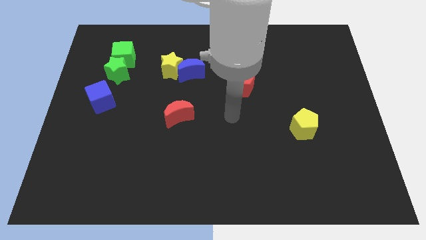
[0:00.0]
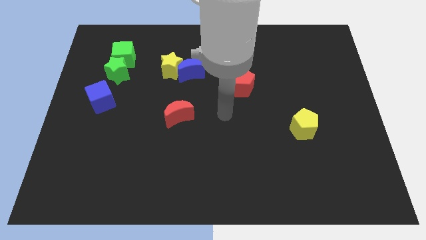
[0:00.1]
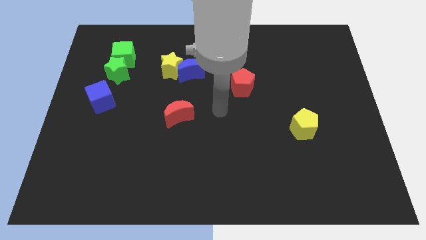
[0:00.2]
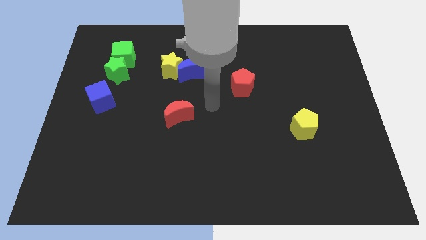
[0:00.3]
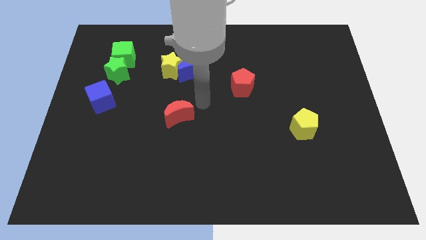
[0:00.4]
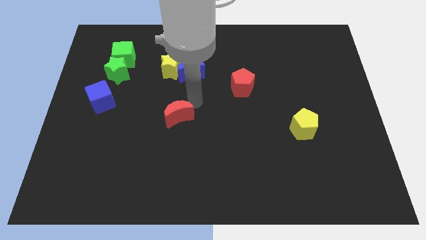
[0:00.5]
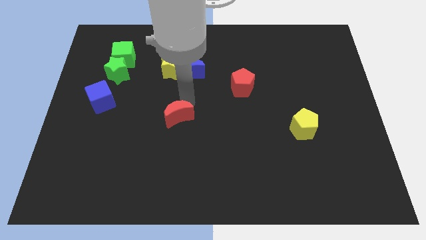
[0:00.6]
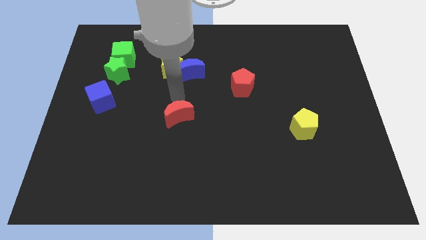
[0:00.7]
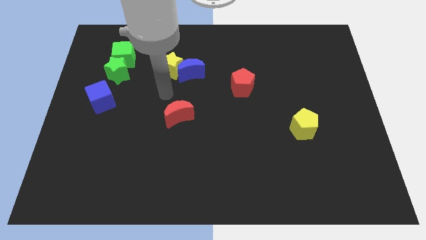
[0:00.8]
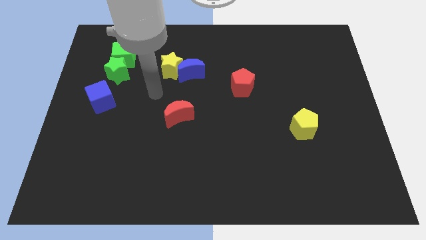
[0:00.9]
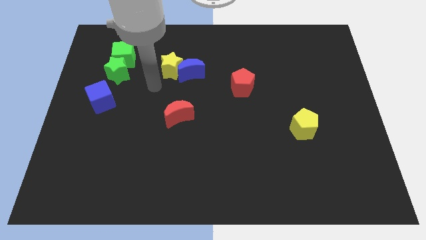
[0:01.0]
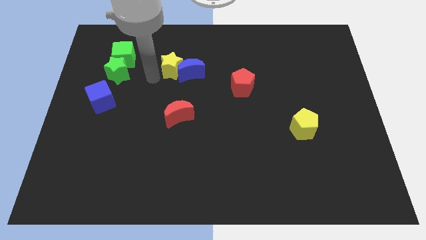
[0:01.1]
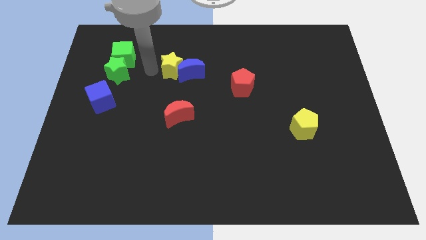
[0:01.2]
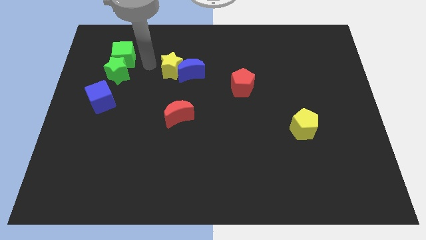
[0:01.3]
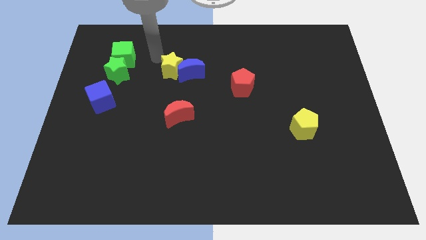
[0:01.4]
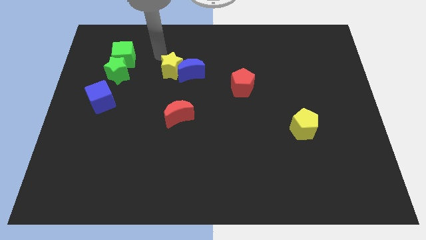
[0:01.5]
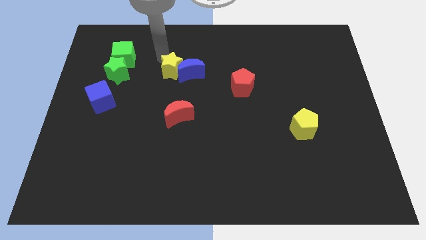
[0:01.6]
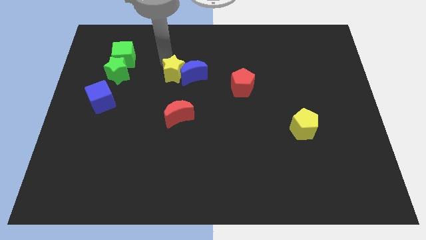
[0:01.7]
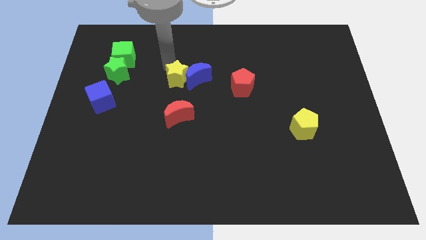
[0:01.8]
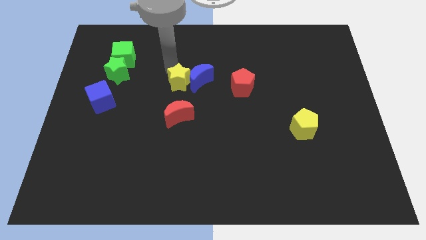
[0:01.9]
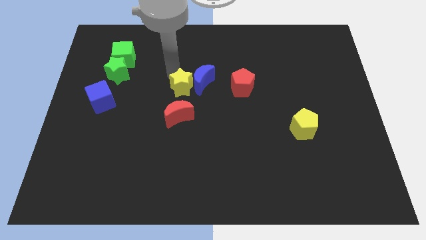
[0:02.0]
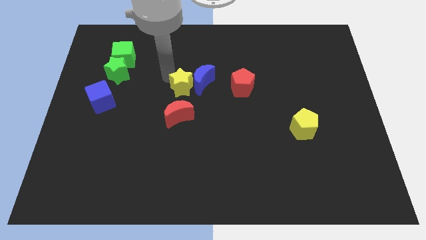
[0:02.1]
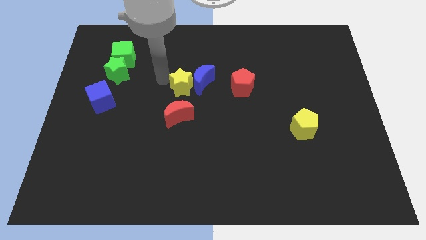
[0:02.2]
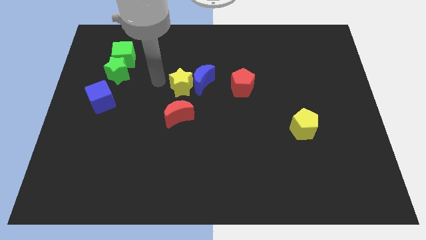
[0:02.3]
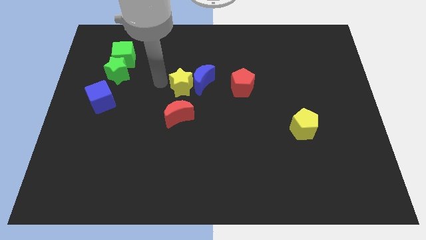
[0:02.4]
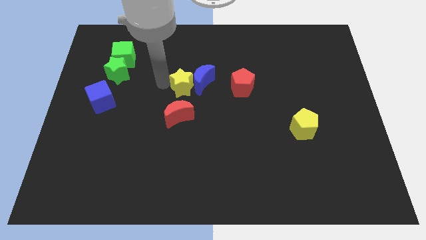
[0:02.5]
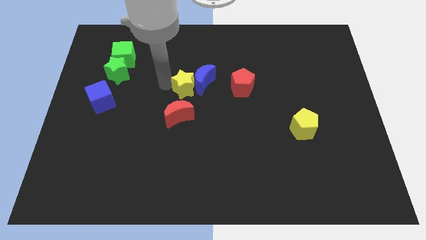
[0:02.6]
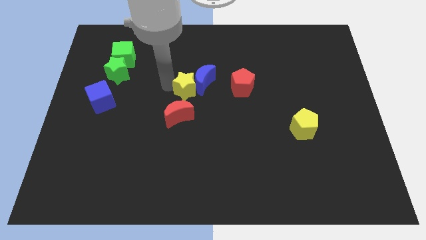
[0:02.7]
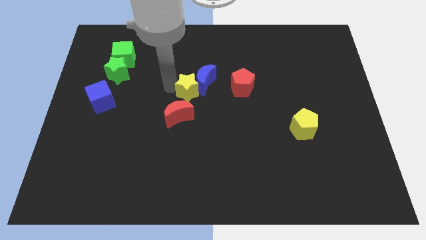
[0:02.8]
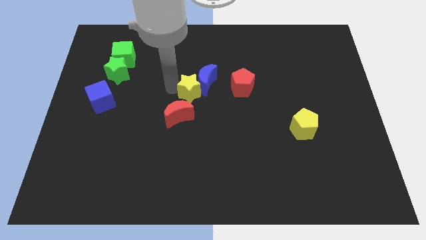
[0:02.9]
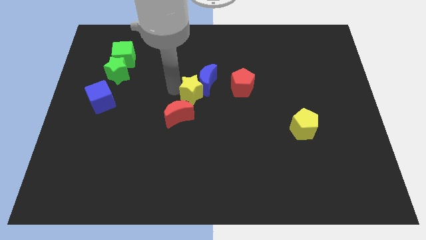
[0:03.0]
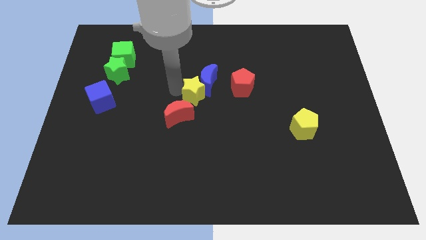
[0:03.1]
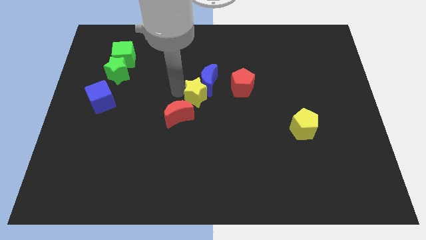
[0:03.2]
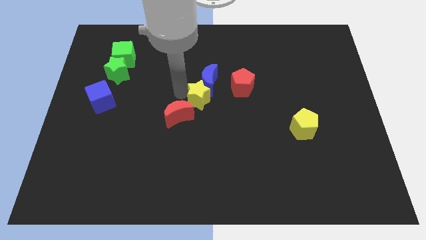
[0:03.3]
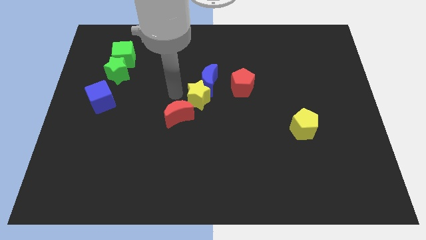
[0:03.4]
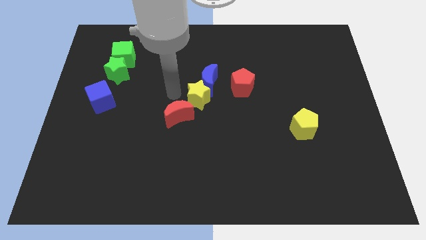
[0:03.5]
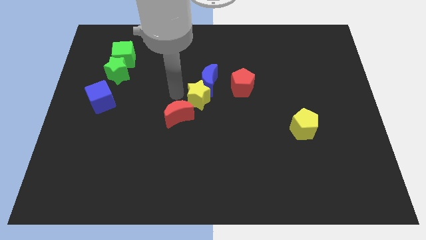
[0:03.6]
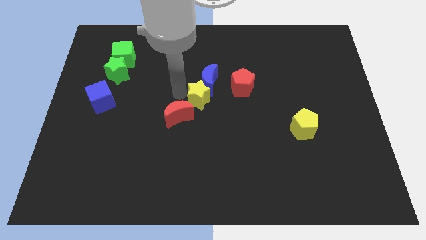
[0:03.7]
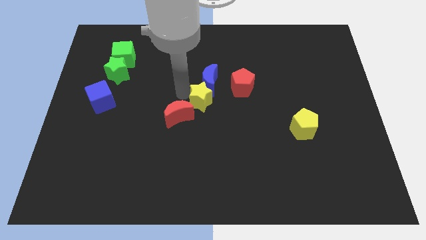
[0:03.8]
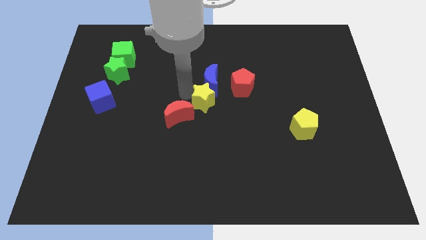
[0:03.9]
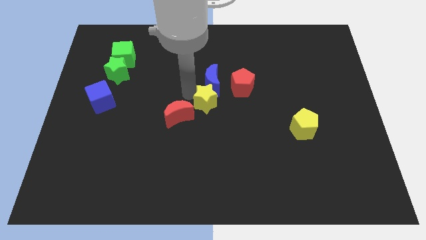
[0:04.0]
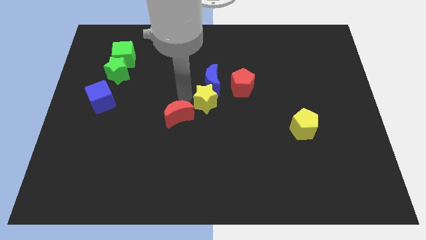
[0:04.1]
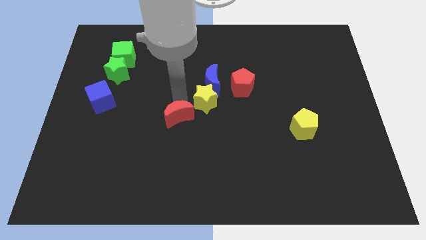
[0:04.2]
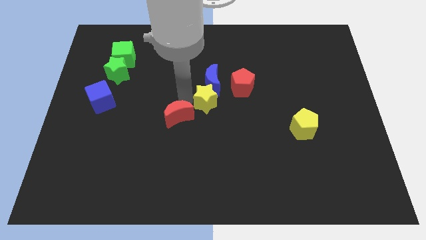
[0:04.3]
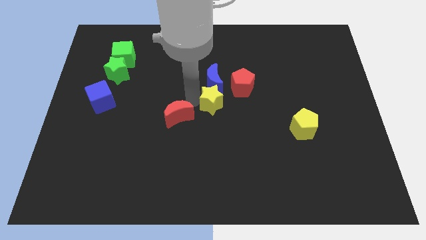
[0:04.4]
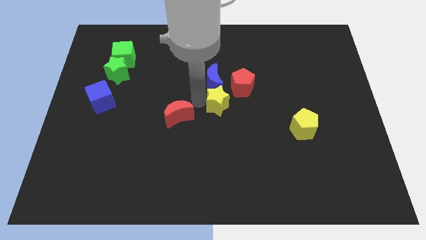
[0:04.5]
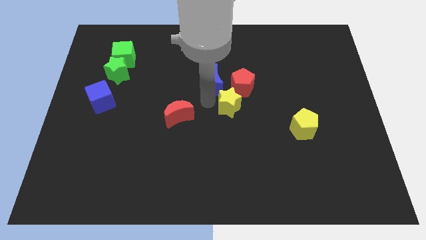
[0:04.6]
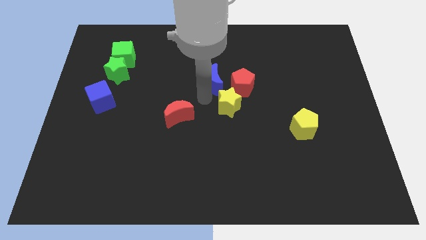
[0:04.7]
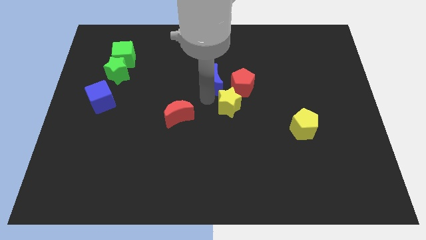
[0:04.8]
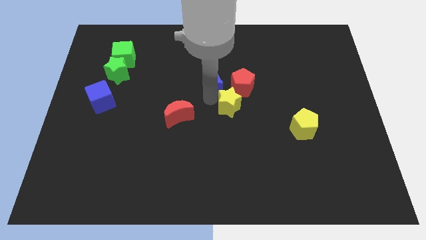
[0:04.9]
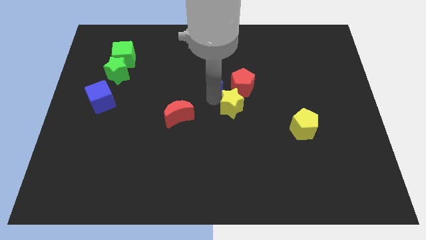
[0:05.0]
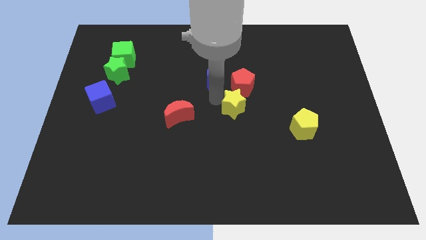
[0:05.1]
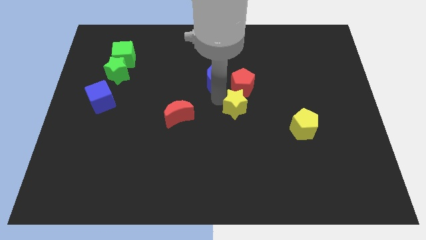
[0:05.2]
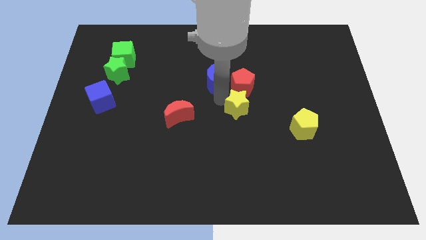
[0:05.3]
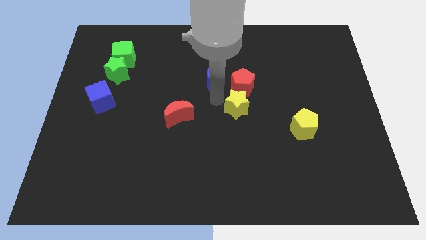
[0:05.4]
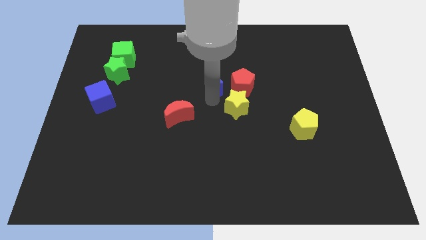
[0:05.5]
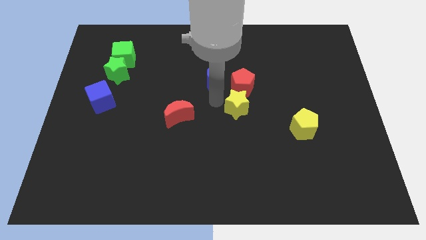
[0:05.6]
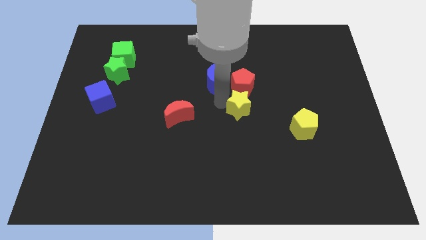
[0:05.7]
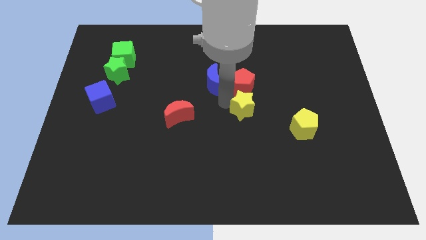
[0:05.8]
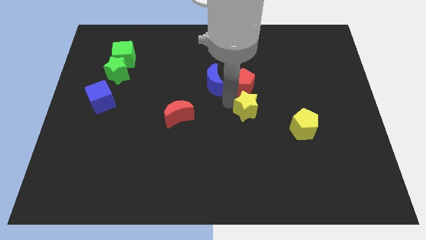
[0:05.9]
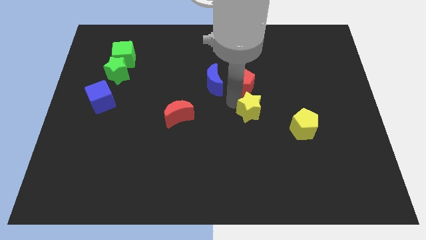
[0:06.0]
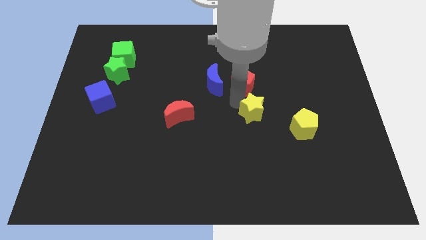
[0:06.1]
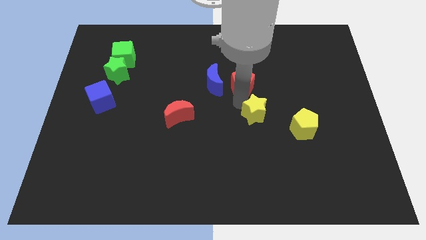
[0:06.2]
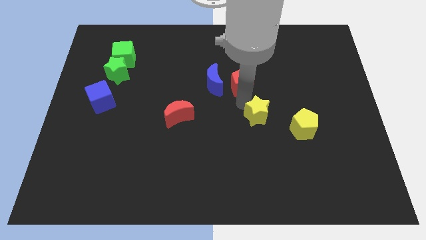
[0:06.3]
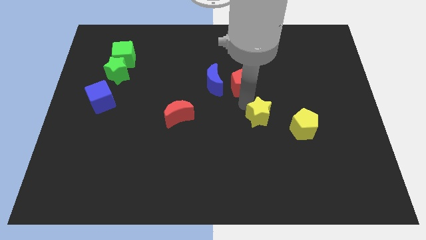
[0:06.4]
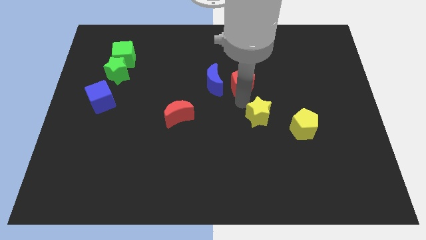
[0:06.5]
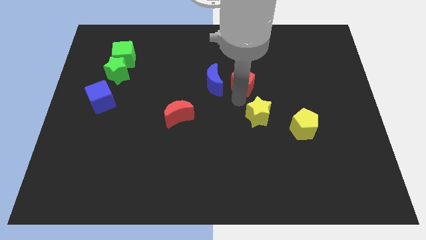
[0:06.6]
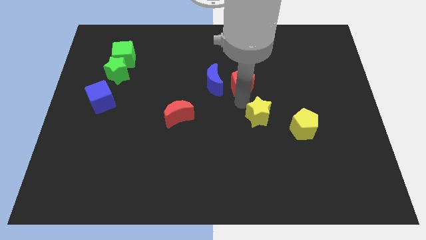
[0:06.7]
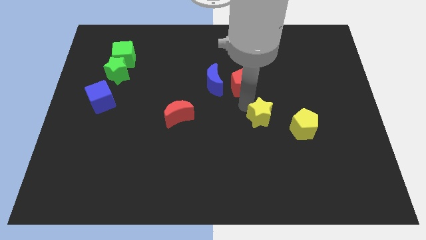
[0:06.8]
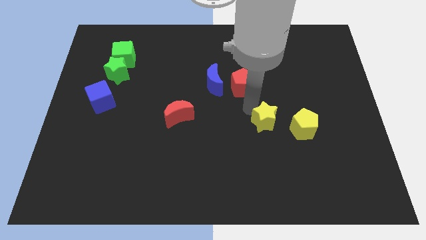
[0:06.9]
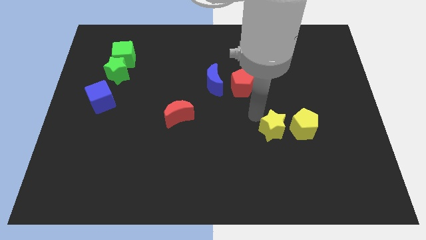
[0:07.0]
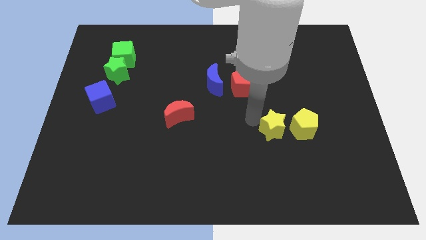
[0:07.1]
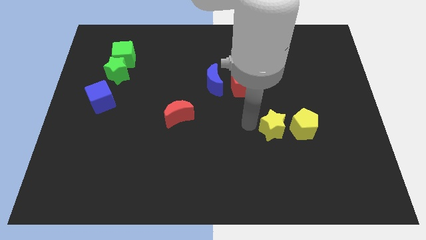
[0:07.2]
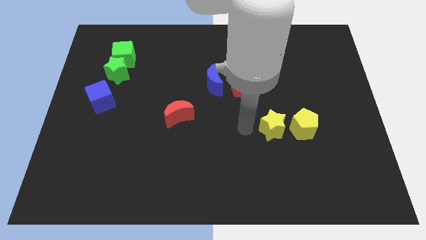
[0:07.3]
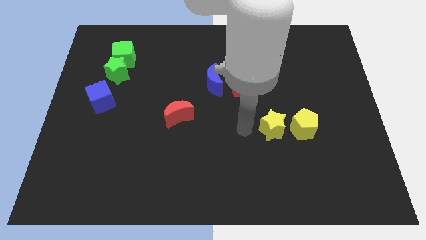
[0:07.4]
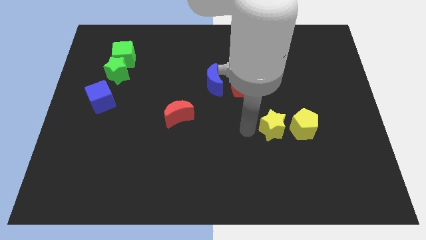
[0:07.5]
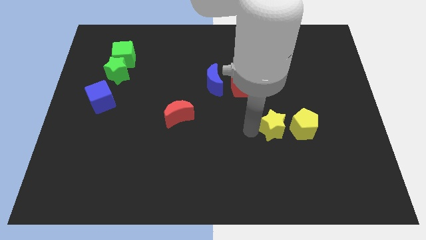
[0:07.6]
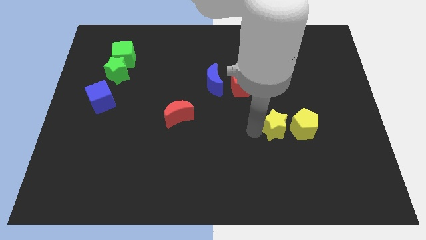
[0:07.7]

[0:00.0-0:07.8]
push the yellow star towards the yellow pentagon
